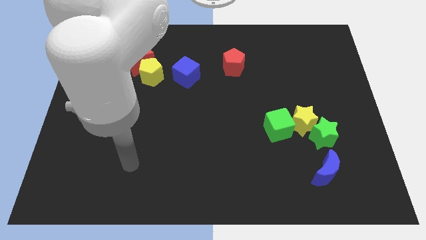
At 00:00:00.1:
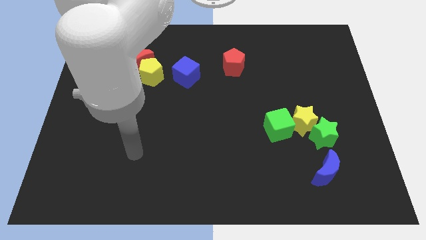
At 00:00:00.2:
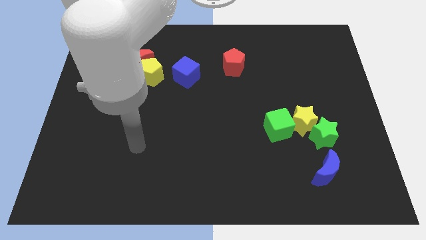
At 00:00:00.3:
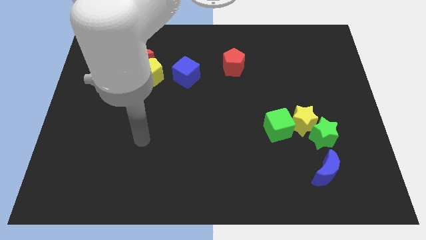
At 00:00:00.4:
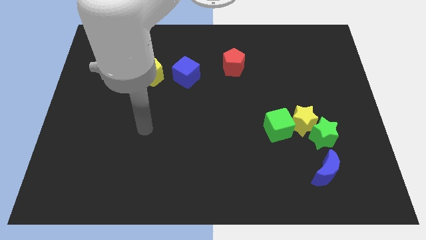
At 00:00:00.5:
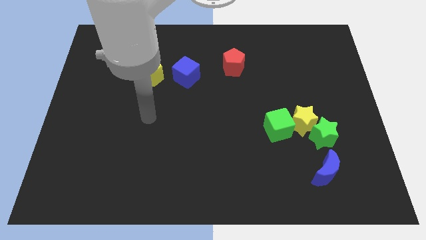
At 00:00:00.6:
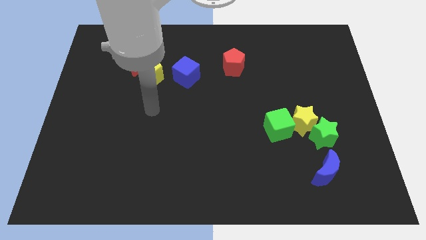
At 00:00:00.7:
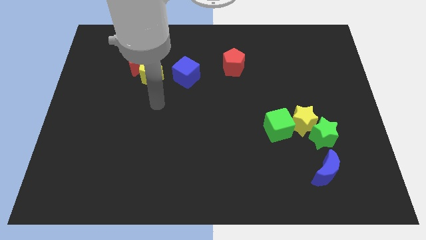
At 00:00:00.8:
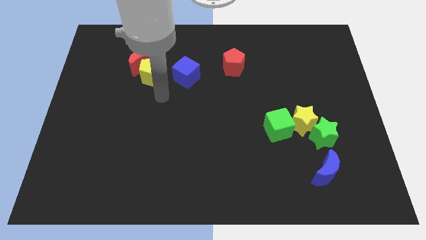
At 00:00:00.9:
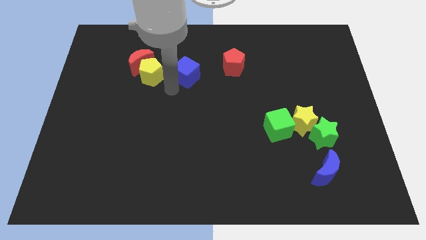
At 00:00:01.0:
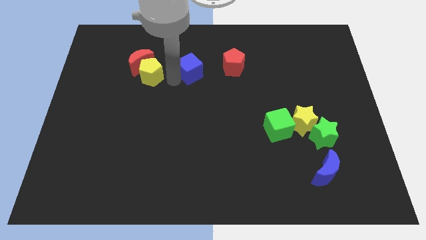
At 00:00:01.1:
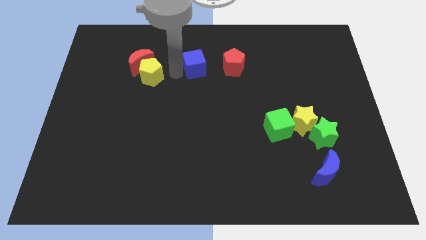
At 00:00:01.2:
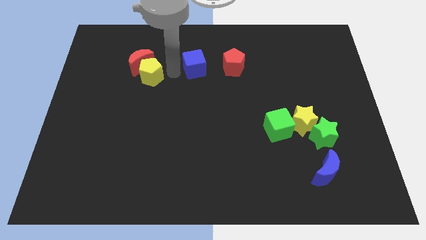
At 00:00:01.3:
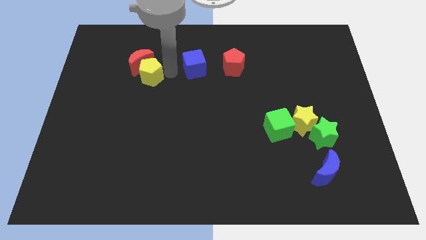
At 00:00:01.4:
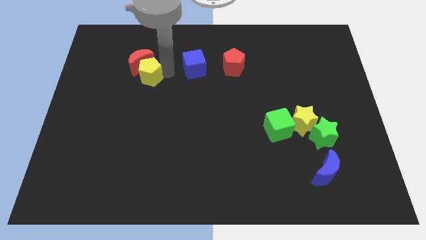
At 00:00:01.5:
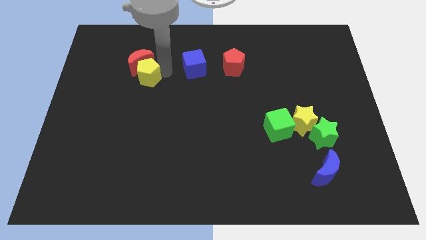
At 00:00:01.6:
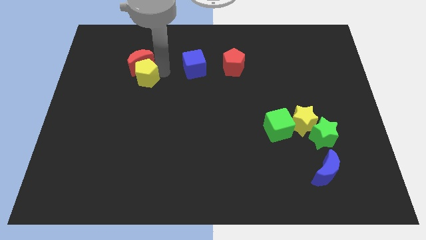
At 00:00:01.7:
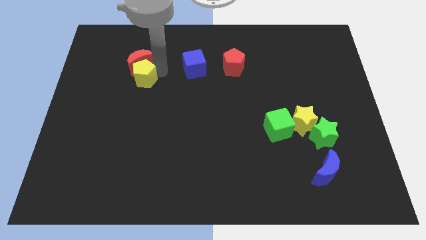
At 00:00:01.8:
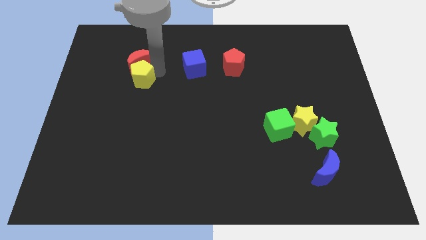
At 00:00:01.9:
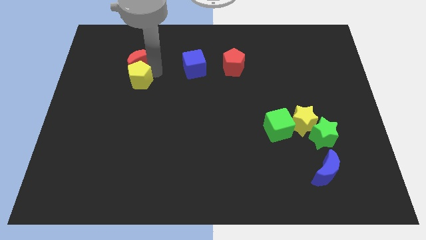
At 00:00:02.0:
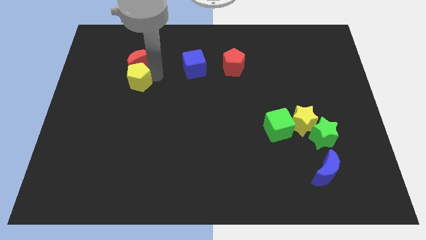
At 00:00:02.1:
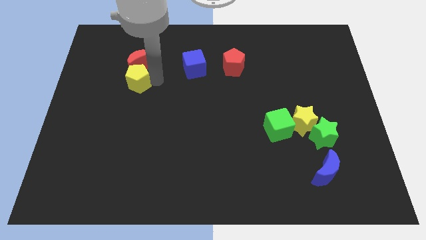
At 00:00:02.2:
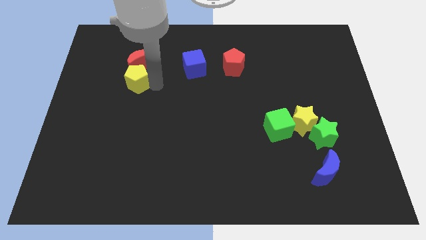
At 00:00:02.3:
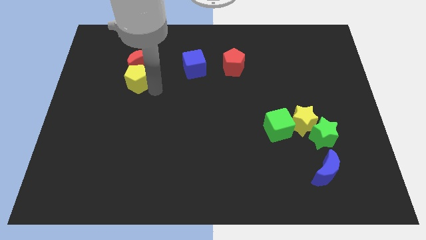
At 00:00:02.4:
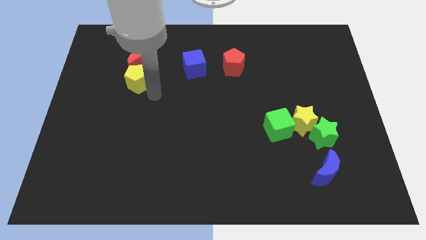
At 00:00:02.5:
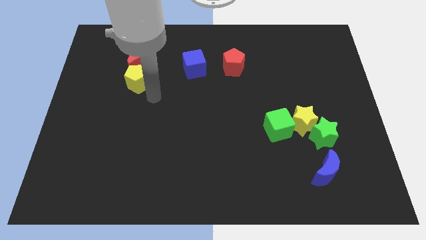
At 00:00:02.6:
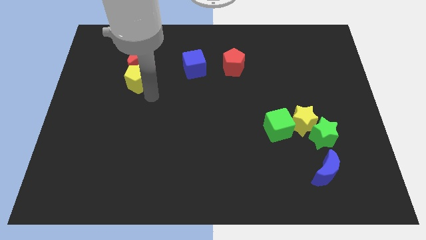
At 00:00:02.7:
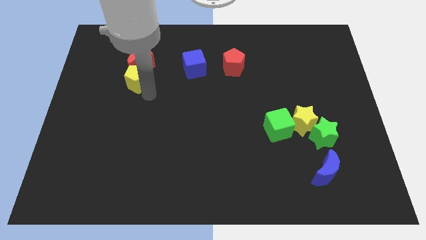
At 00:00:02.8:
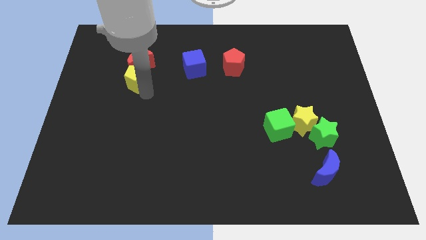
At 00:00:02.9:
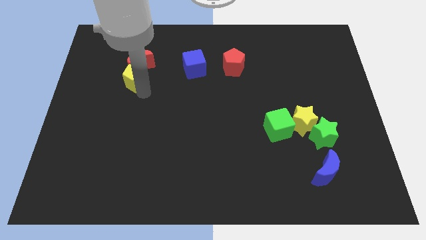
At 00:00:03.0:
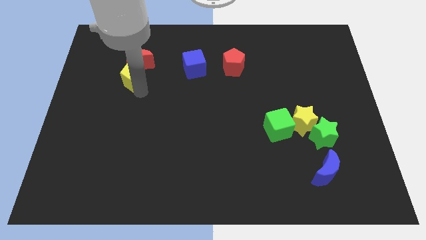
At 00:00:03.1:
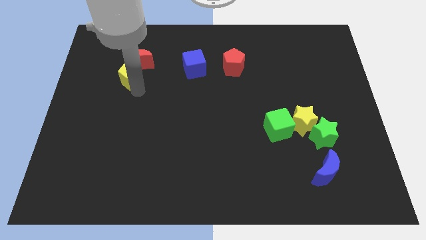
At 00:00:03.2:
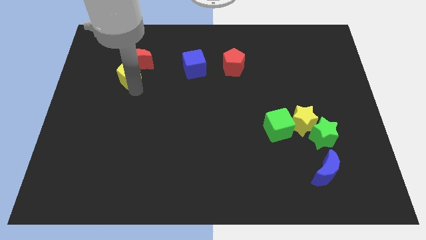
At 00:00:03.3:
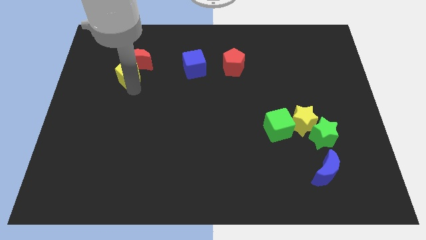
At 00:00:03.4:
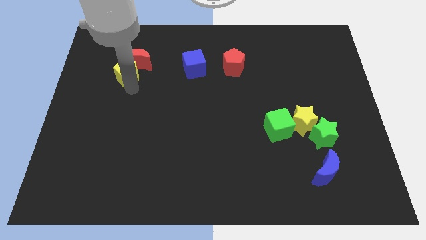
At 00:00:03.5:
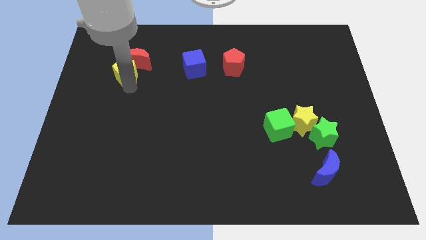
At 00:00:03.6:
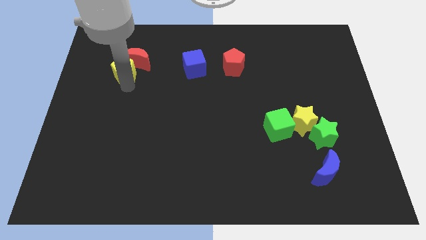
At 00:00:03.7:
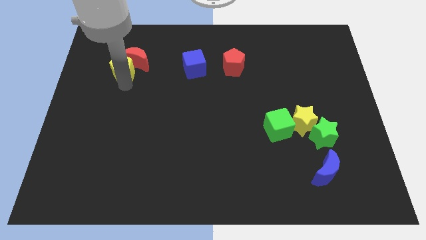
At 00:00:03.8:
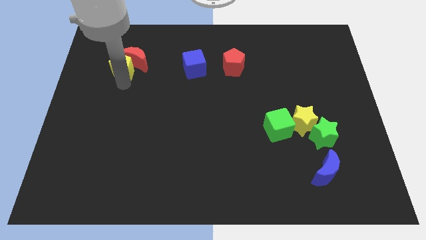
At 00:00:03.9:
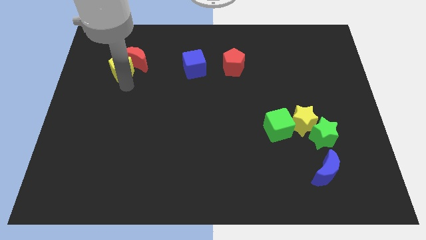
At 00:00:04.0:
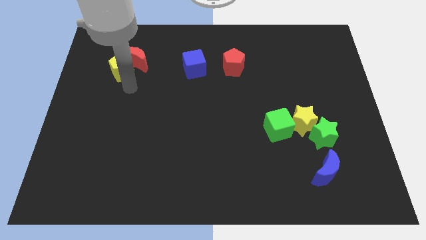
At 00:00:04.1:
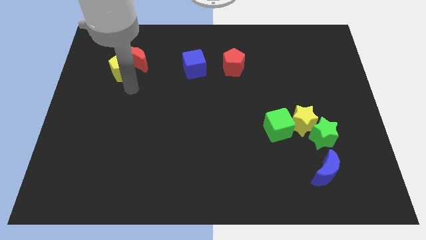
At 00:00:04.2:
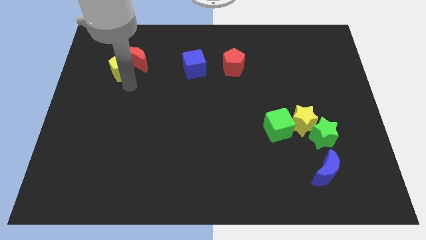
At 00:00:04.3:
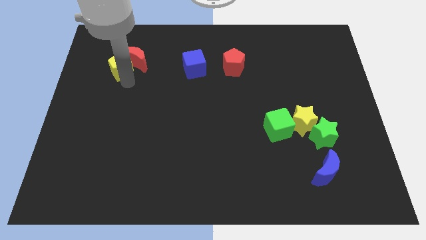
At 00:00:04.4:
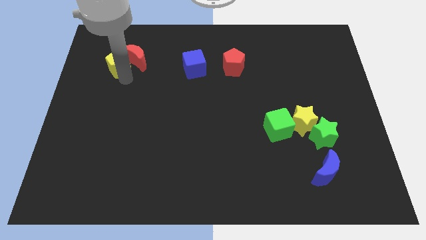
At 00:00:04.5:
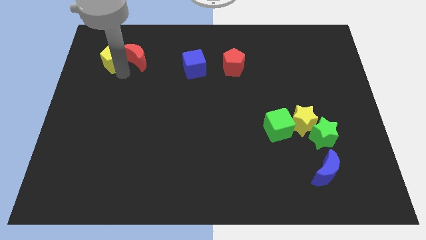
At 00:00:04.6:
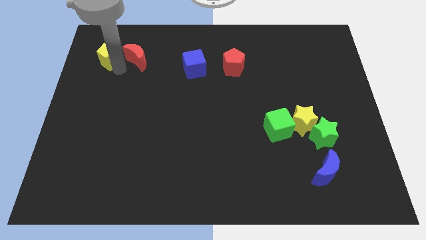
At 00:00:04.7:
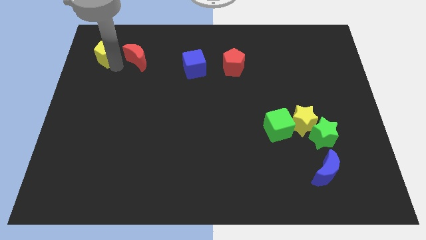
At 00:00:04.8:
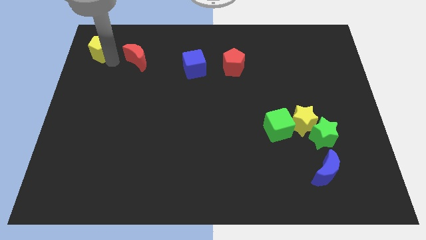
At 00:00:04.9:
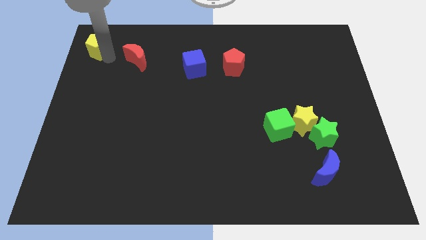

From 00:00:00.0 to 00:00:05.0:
push the yellow pentagon to the top left corner

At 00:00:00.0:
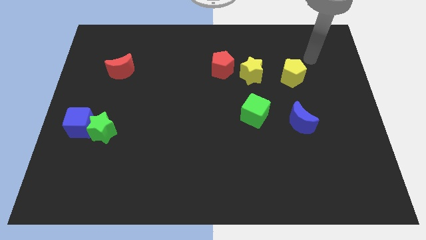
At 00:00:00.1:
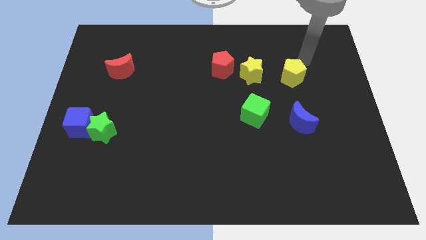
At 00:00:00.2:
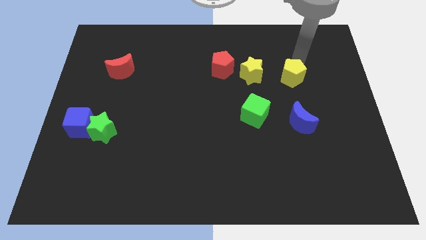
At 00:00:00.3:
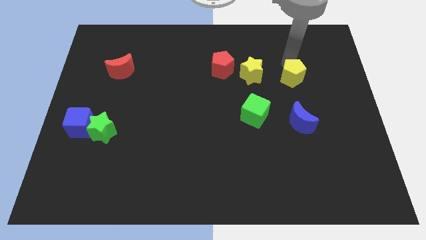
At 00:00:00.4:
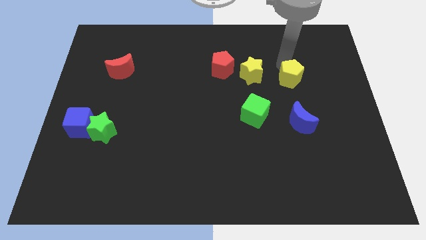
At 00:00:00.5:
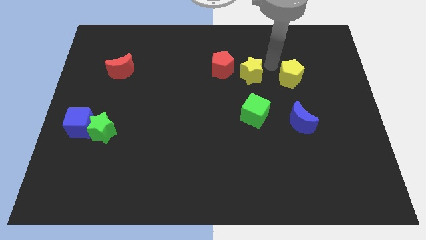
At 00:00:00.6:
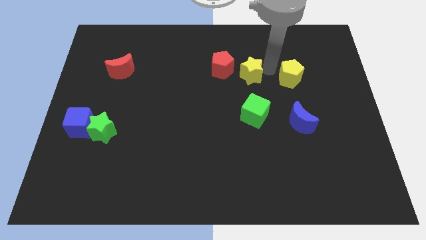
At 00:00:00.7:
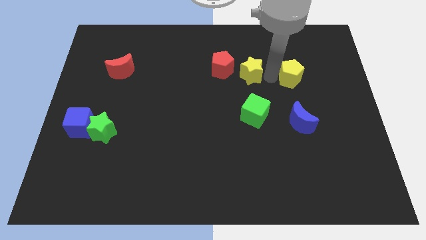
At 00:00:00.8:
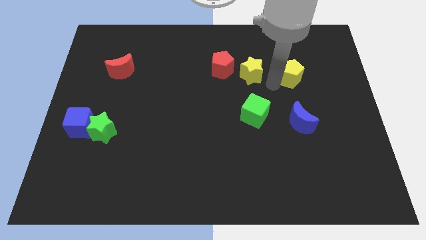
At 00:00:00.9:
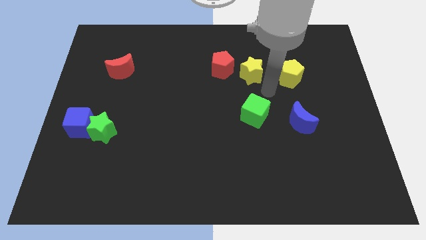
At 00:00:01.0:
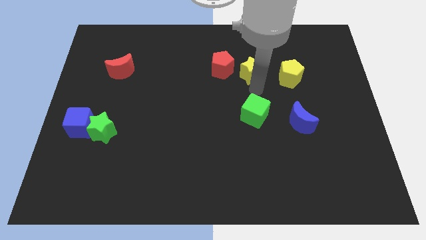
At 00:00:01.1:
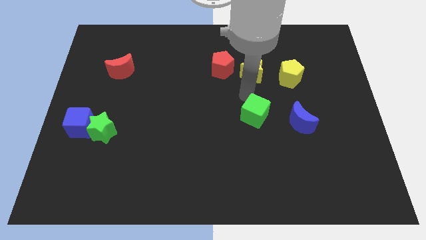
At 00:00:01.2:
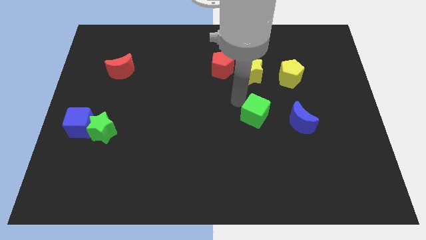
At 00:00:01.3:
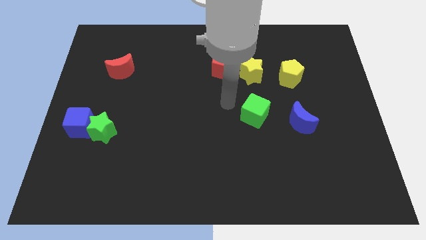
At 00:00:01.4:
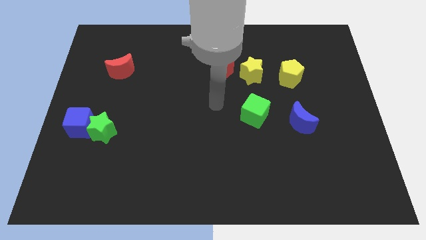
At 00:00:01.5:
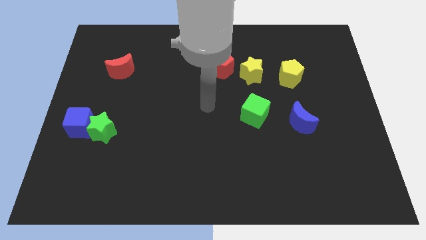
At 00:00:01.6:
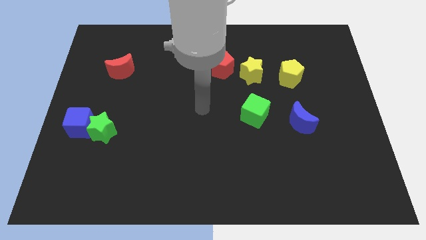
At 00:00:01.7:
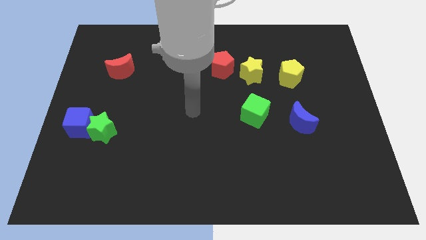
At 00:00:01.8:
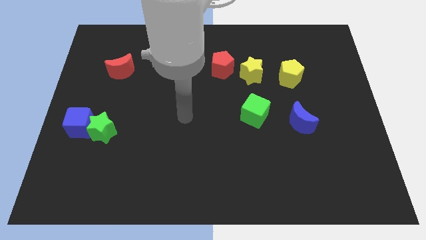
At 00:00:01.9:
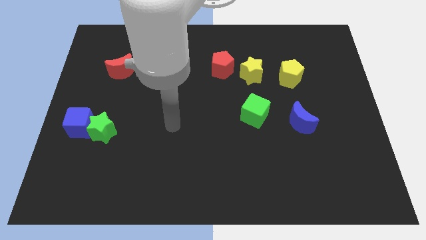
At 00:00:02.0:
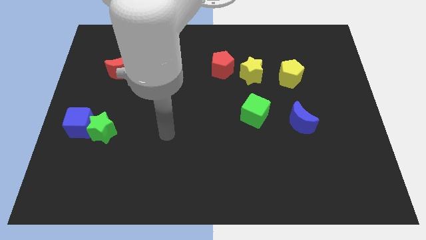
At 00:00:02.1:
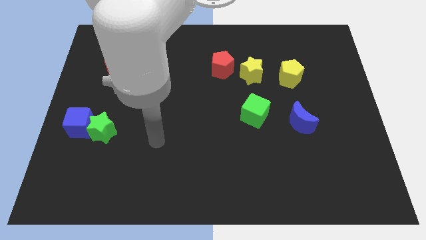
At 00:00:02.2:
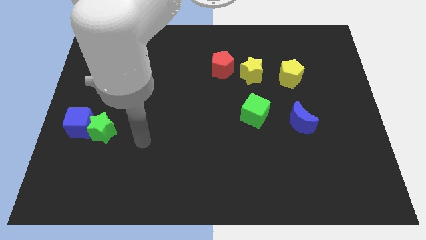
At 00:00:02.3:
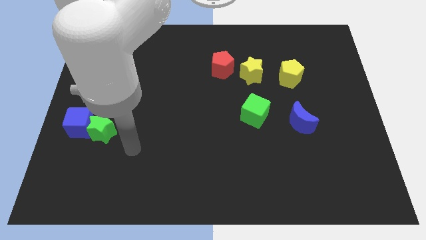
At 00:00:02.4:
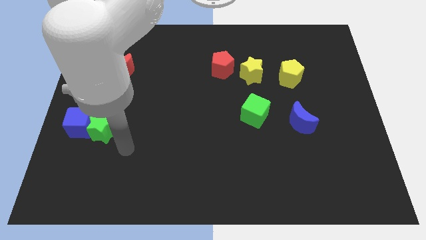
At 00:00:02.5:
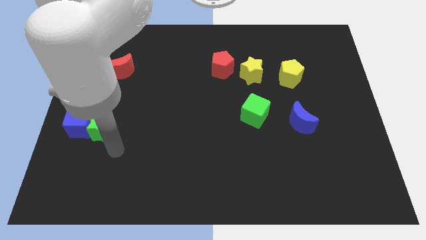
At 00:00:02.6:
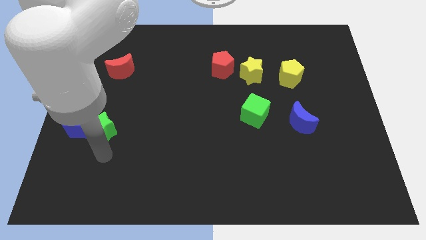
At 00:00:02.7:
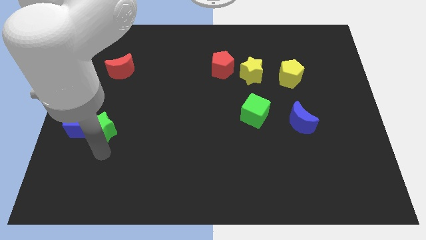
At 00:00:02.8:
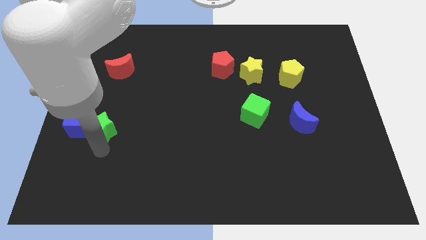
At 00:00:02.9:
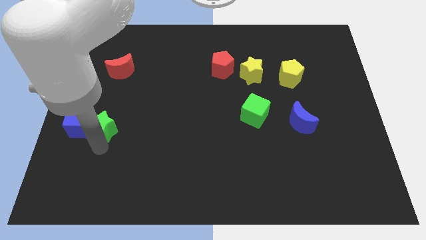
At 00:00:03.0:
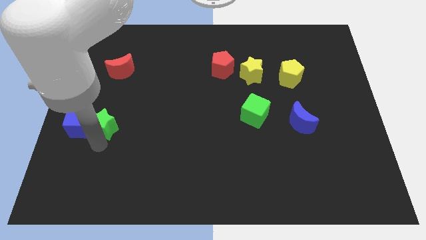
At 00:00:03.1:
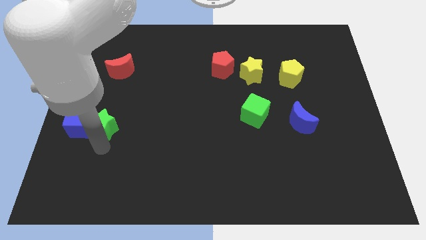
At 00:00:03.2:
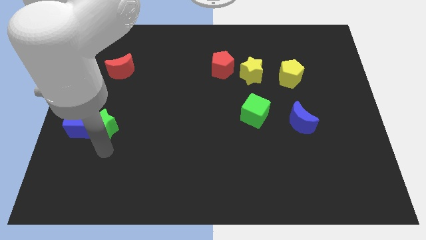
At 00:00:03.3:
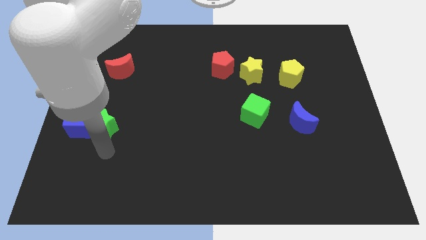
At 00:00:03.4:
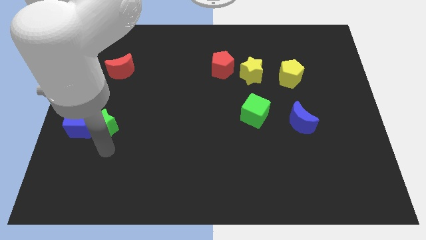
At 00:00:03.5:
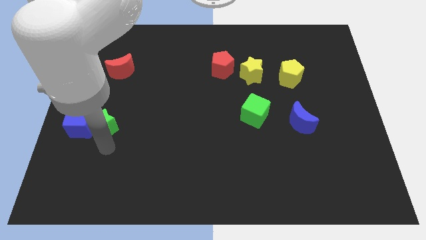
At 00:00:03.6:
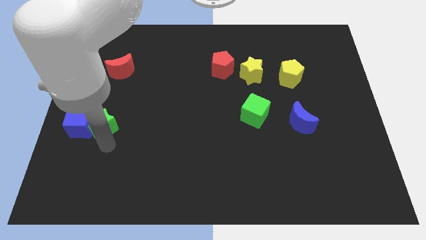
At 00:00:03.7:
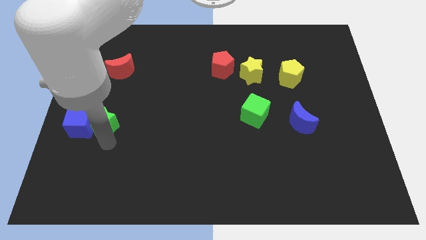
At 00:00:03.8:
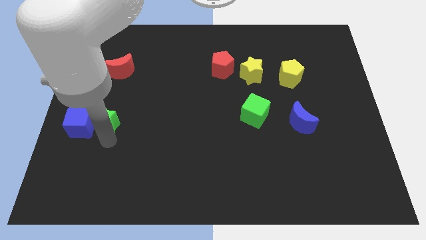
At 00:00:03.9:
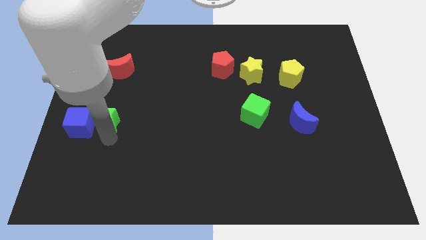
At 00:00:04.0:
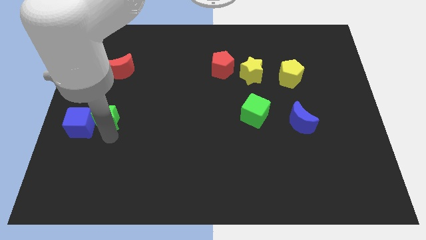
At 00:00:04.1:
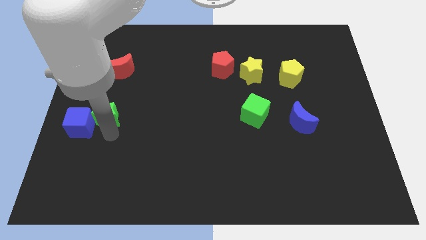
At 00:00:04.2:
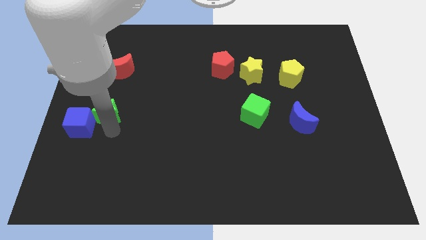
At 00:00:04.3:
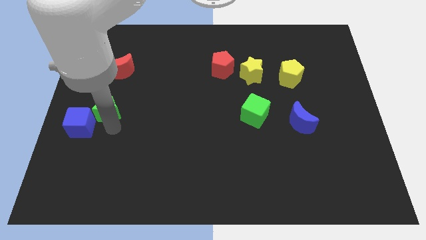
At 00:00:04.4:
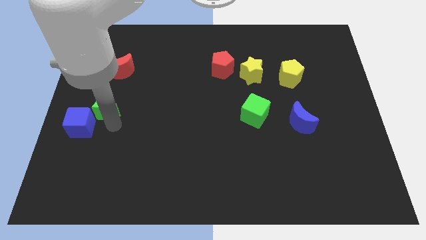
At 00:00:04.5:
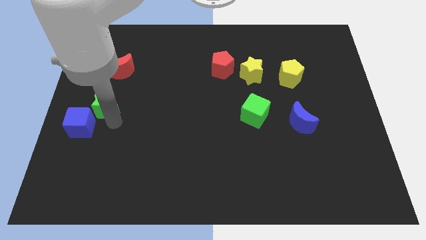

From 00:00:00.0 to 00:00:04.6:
push the green star to the left side of the board
